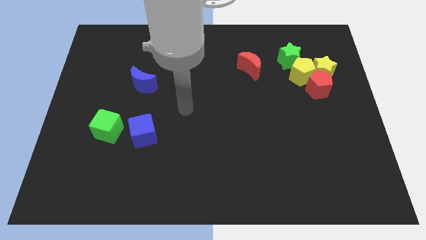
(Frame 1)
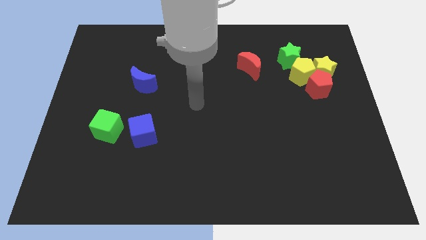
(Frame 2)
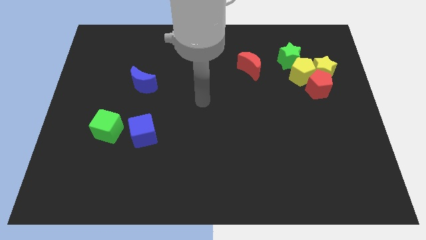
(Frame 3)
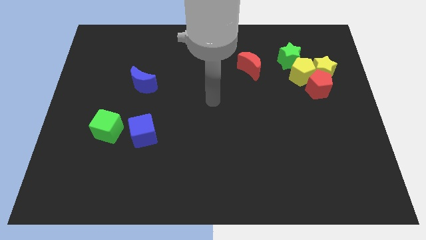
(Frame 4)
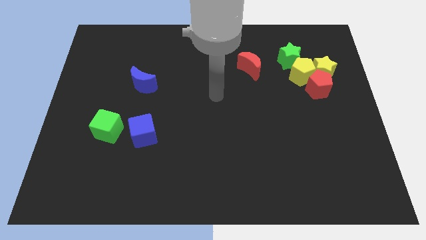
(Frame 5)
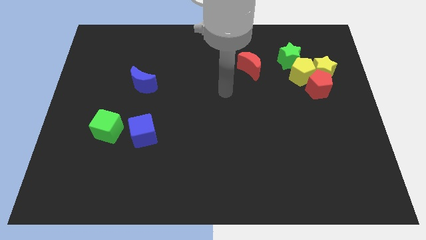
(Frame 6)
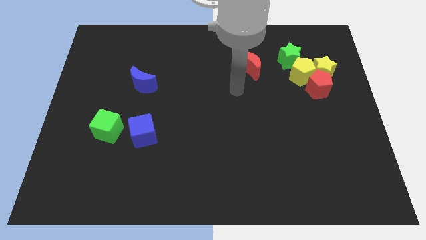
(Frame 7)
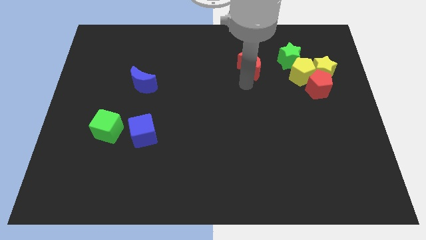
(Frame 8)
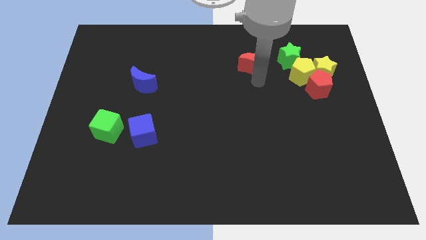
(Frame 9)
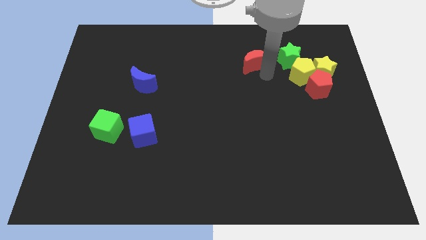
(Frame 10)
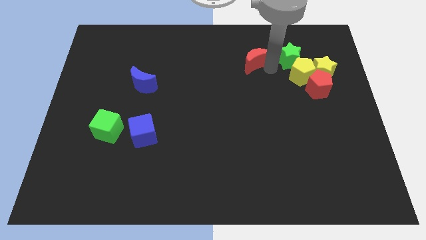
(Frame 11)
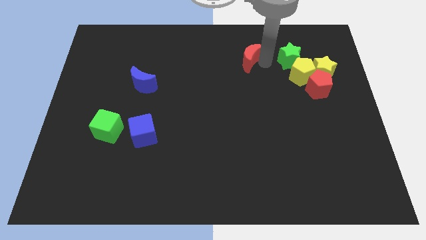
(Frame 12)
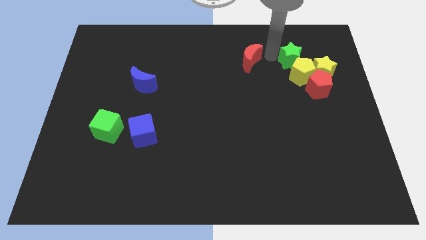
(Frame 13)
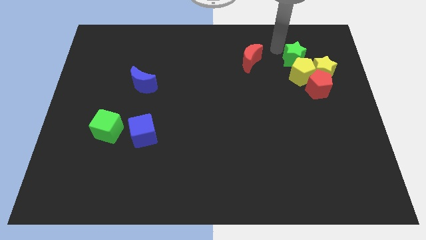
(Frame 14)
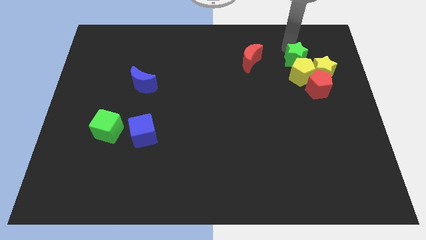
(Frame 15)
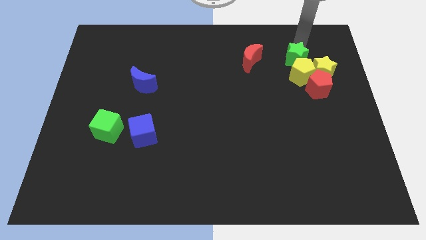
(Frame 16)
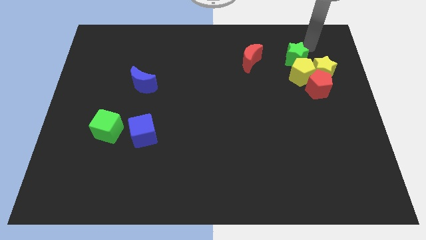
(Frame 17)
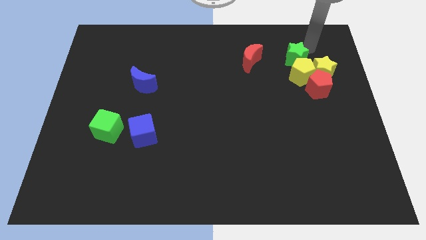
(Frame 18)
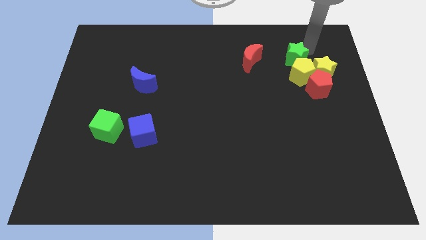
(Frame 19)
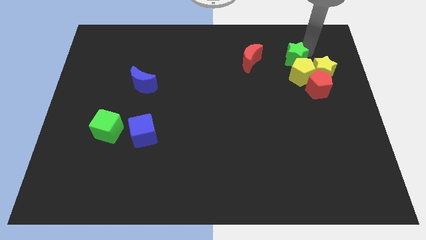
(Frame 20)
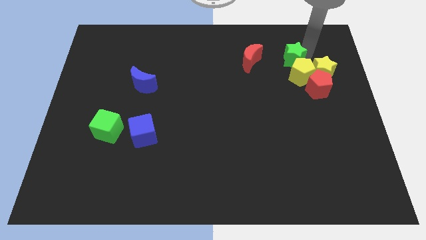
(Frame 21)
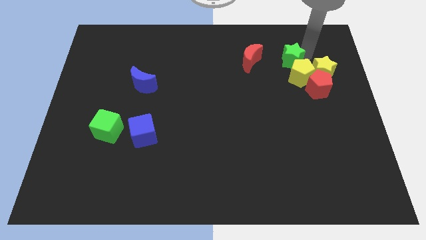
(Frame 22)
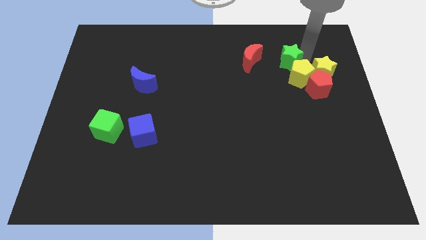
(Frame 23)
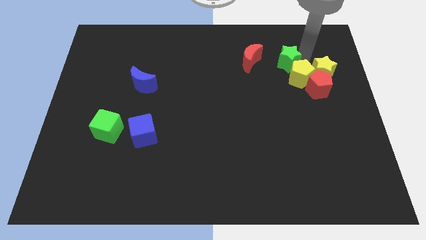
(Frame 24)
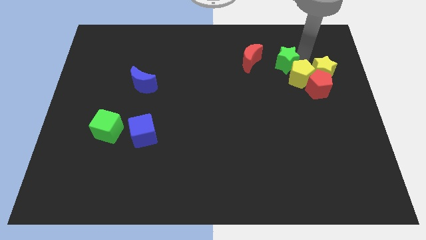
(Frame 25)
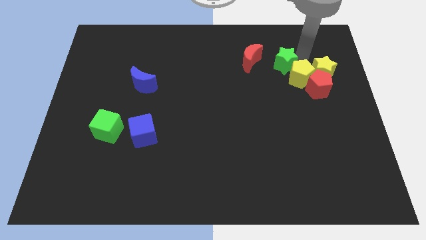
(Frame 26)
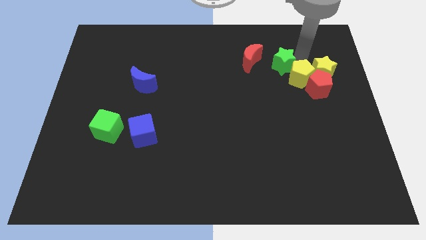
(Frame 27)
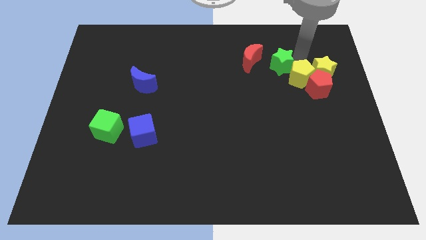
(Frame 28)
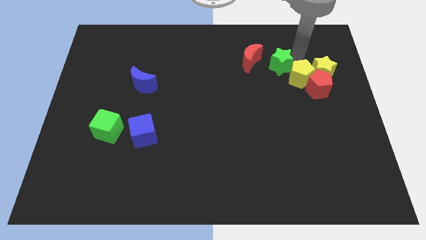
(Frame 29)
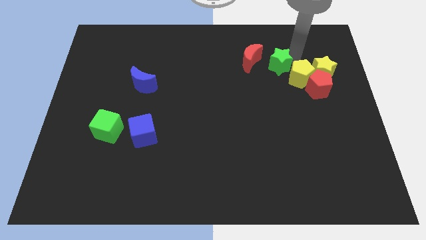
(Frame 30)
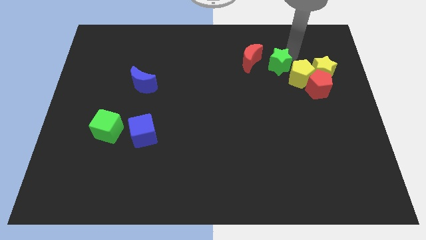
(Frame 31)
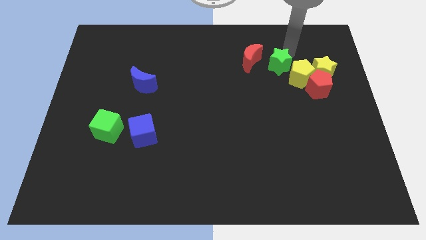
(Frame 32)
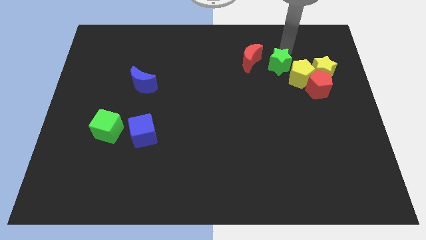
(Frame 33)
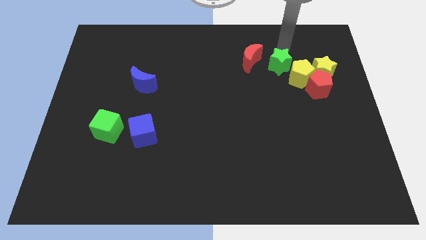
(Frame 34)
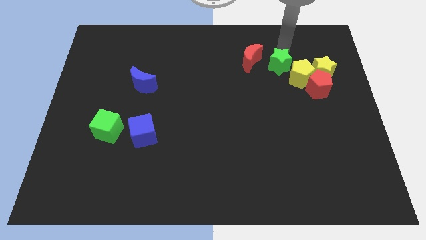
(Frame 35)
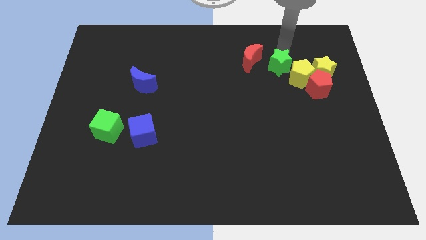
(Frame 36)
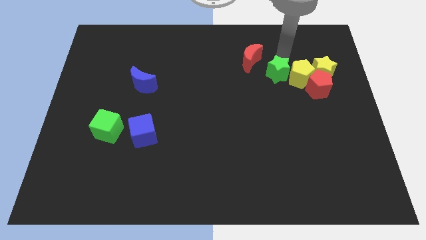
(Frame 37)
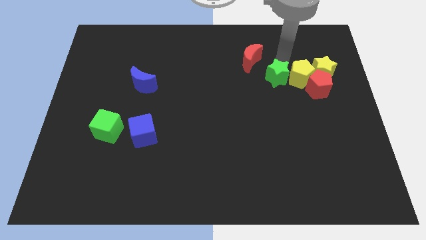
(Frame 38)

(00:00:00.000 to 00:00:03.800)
slightly move the green star downwards and left diagonally

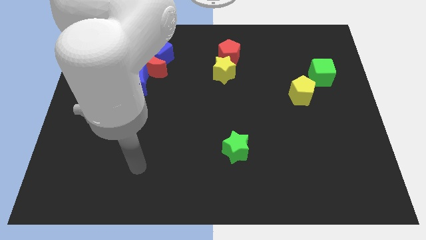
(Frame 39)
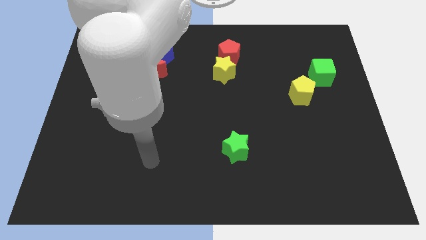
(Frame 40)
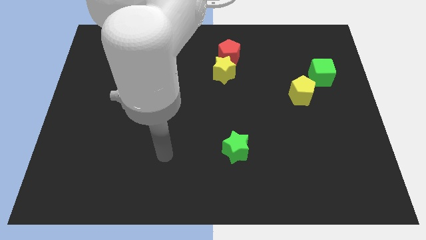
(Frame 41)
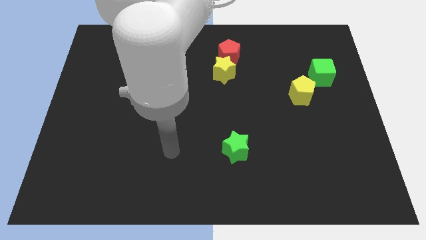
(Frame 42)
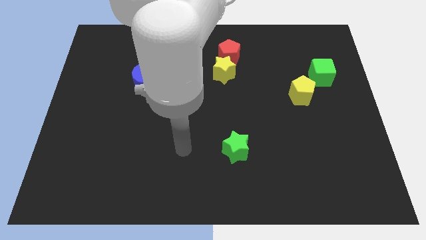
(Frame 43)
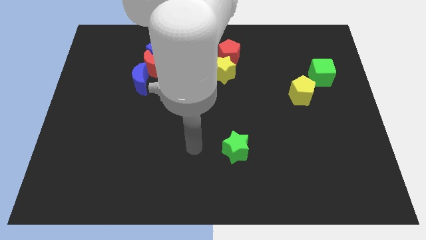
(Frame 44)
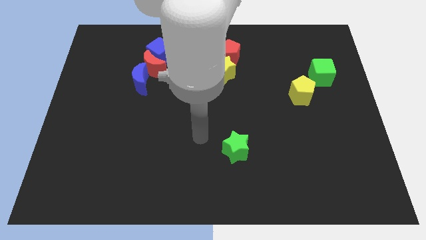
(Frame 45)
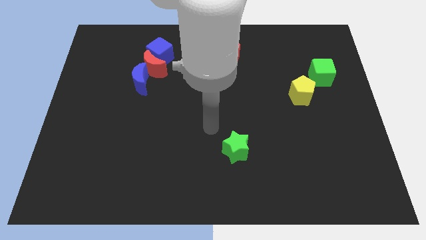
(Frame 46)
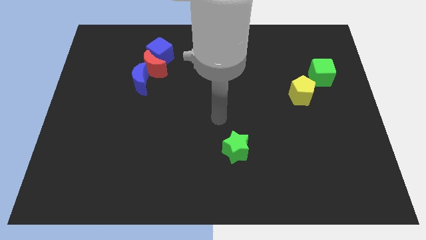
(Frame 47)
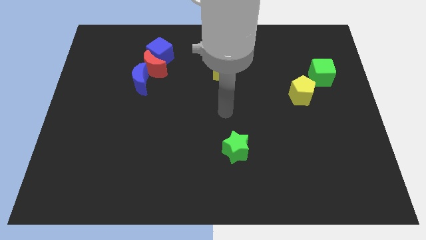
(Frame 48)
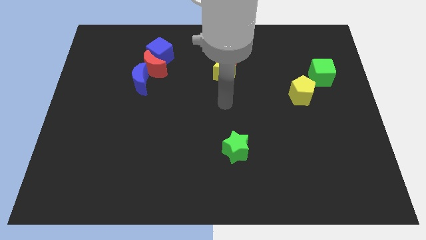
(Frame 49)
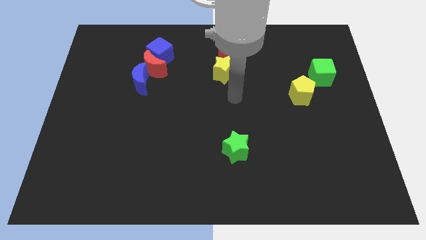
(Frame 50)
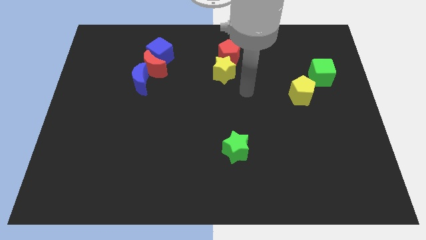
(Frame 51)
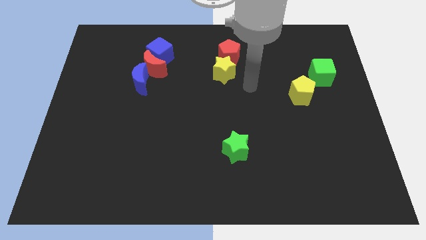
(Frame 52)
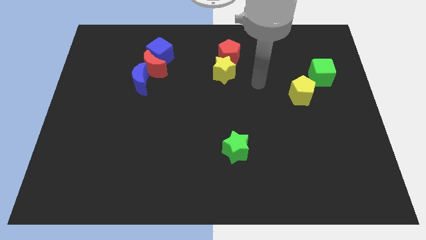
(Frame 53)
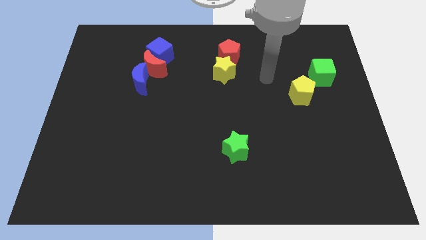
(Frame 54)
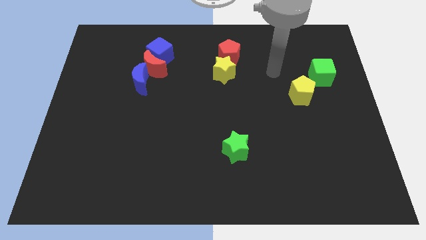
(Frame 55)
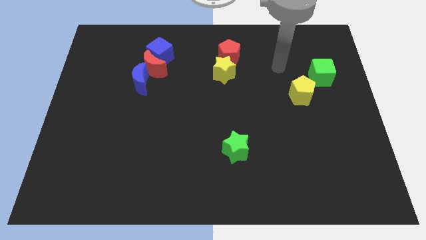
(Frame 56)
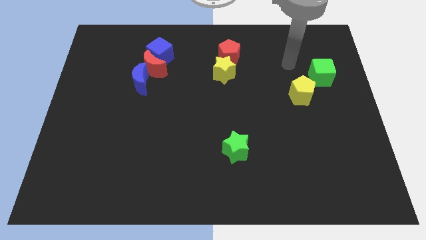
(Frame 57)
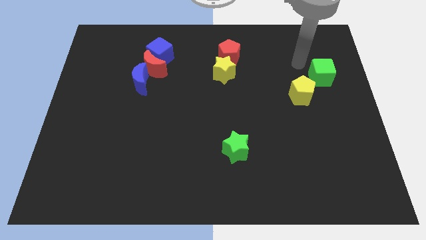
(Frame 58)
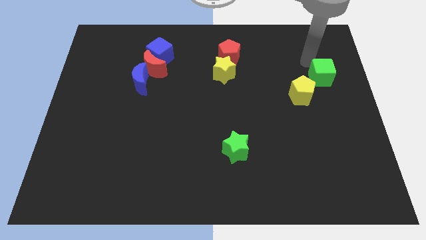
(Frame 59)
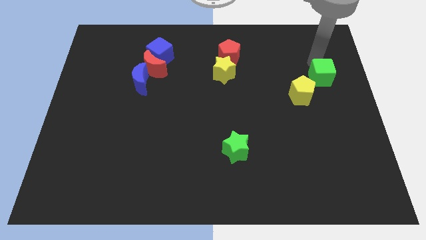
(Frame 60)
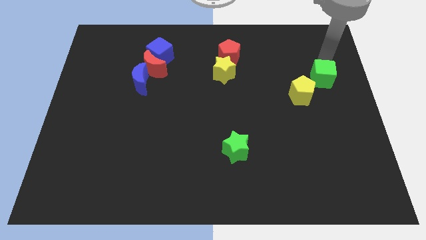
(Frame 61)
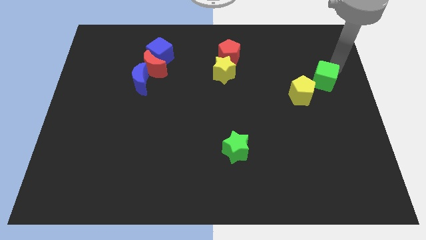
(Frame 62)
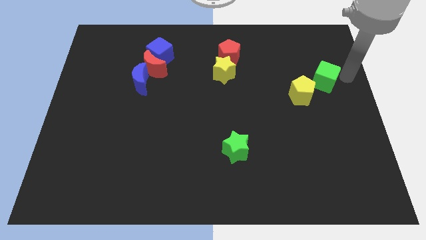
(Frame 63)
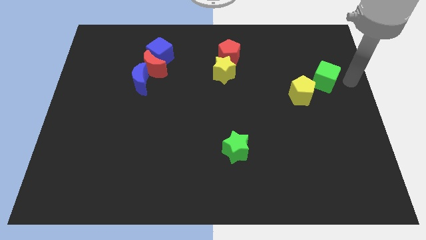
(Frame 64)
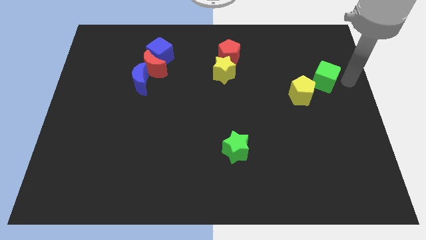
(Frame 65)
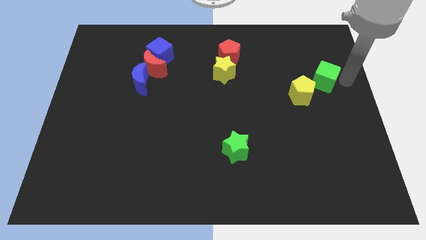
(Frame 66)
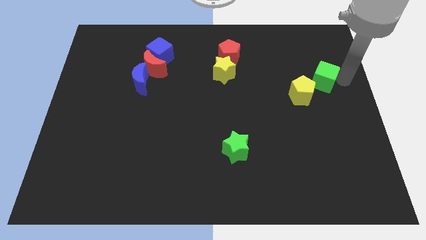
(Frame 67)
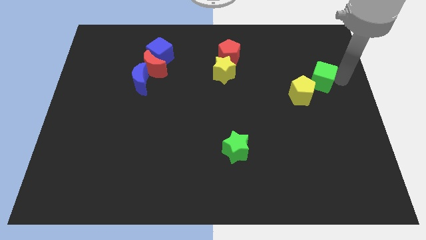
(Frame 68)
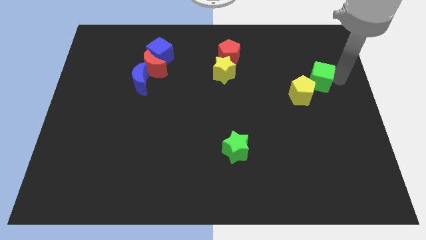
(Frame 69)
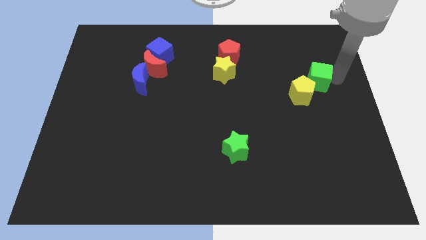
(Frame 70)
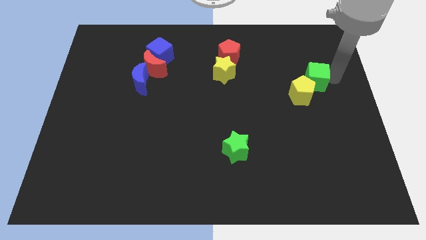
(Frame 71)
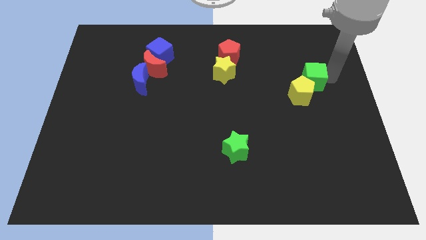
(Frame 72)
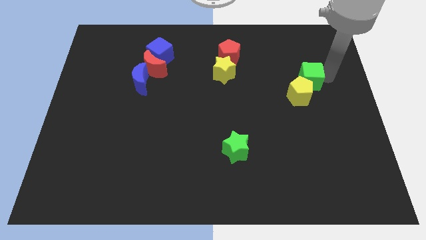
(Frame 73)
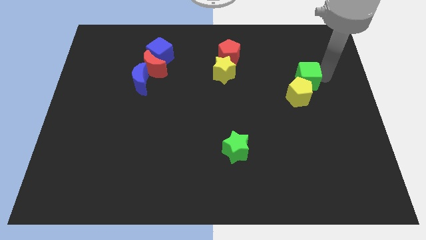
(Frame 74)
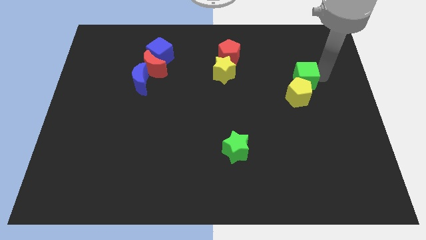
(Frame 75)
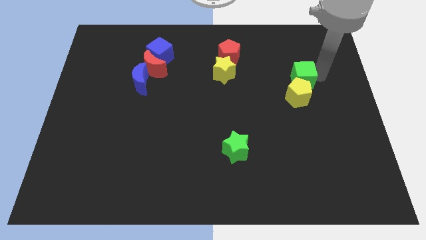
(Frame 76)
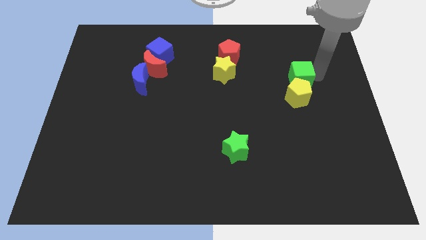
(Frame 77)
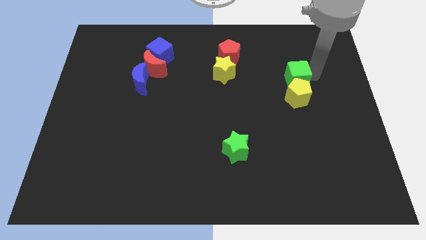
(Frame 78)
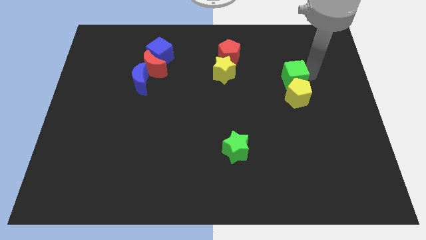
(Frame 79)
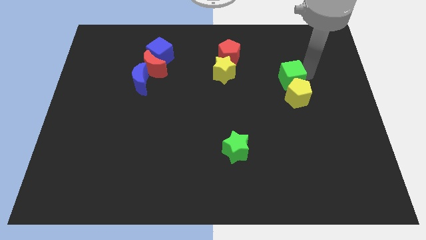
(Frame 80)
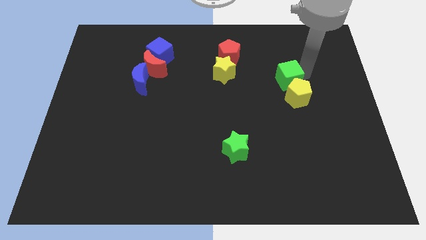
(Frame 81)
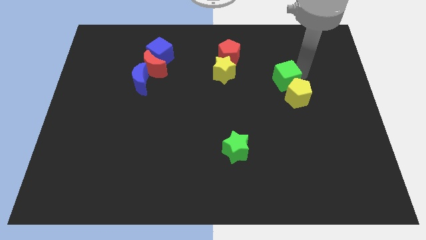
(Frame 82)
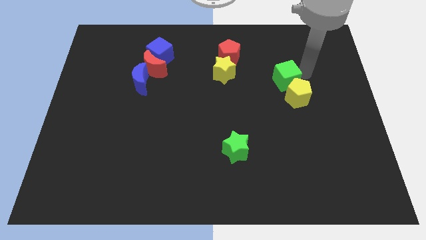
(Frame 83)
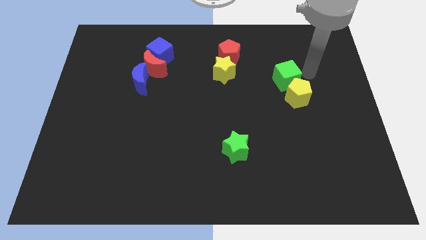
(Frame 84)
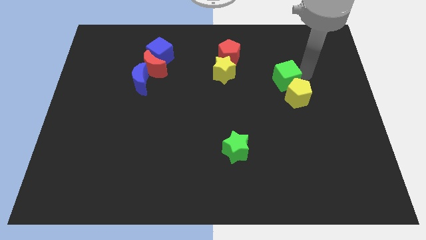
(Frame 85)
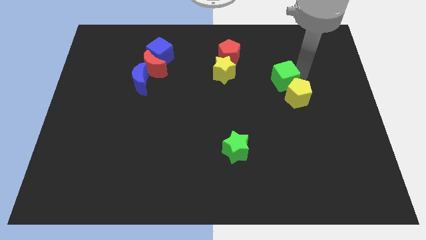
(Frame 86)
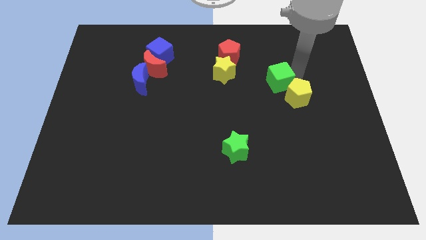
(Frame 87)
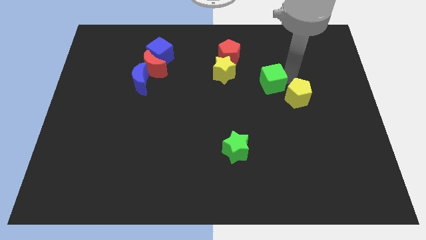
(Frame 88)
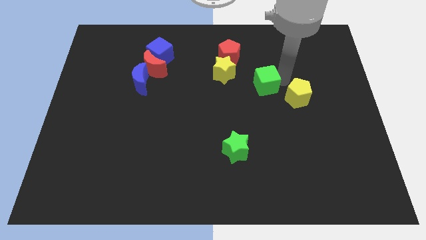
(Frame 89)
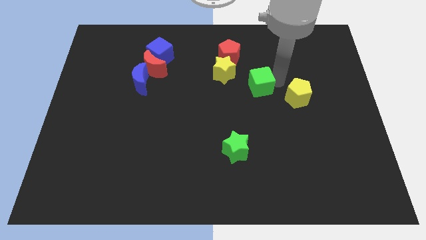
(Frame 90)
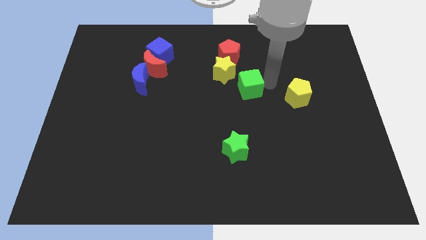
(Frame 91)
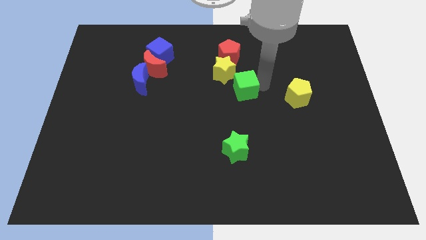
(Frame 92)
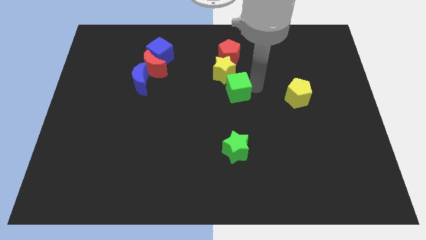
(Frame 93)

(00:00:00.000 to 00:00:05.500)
move the green cube left
